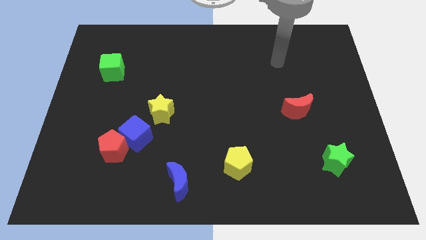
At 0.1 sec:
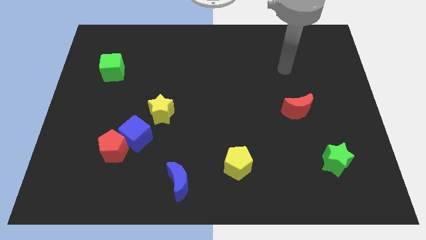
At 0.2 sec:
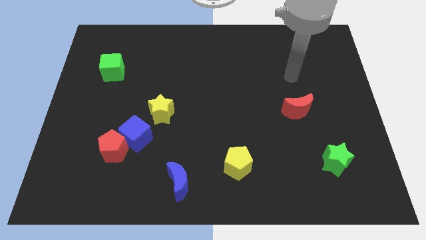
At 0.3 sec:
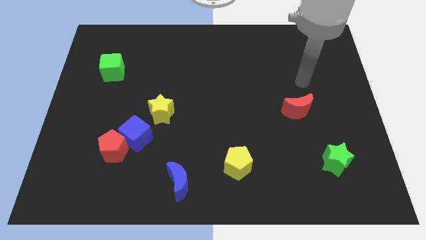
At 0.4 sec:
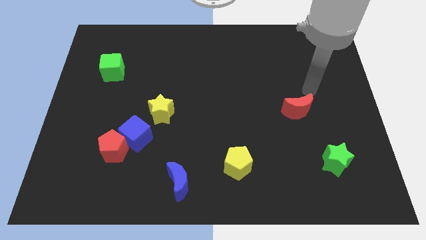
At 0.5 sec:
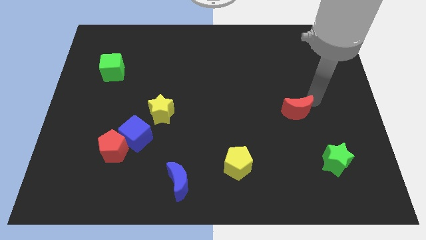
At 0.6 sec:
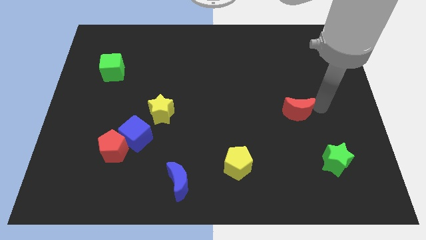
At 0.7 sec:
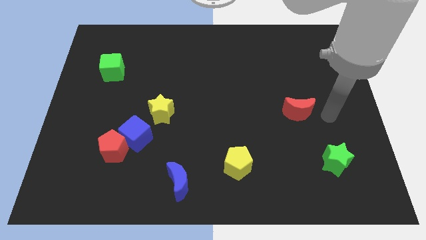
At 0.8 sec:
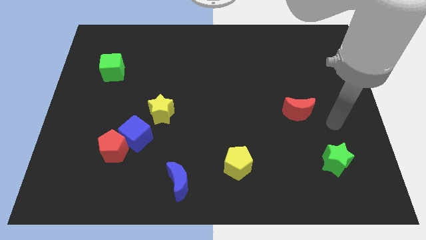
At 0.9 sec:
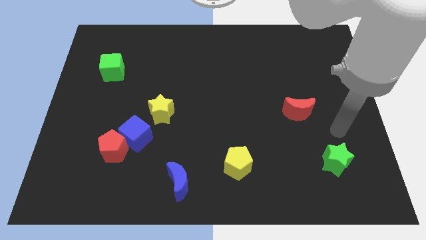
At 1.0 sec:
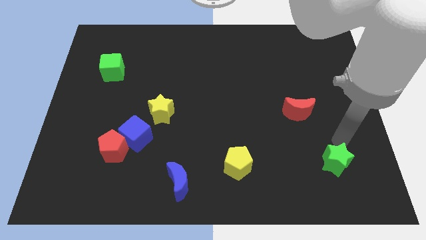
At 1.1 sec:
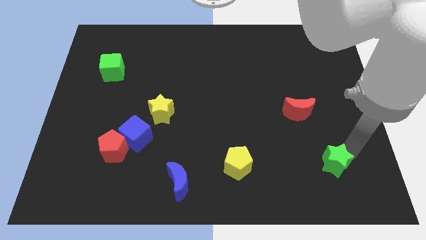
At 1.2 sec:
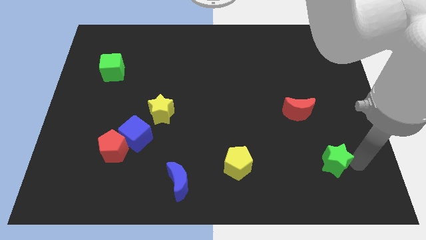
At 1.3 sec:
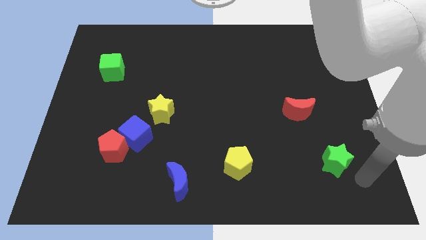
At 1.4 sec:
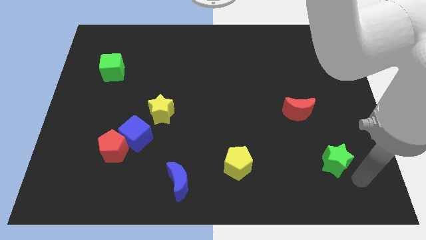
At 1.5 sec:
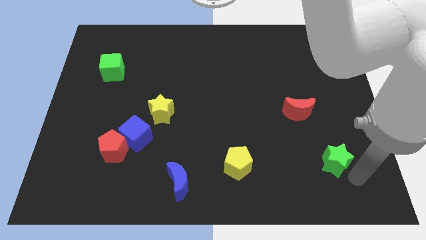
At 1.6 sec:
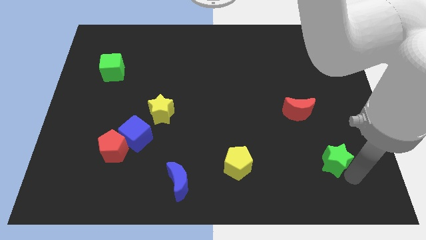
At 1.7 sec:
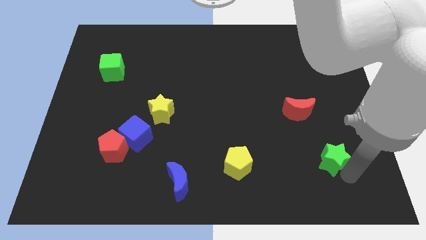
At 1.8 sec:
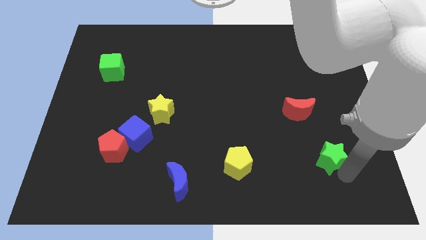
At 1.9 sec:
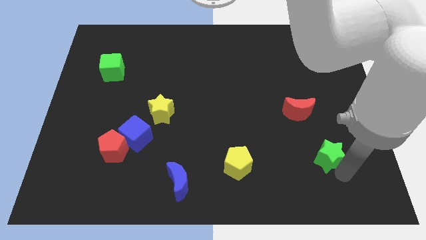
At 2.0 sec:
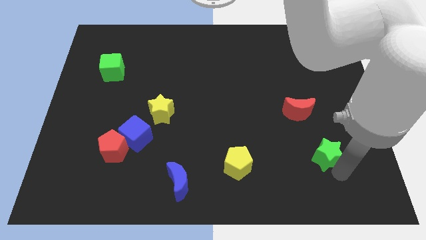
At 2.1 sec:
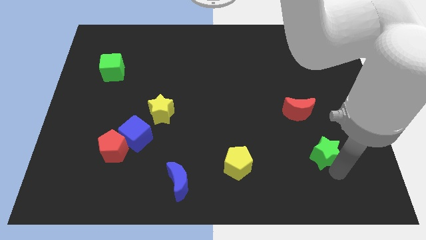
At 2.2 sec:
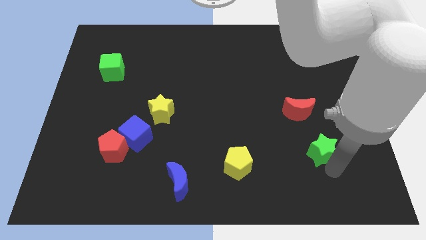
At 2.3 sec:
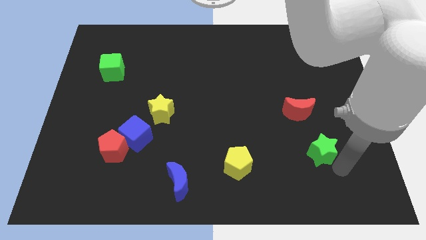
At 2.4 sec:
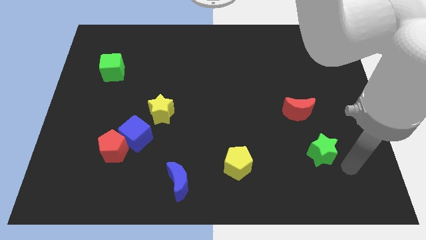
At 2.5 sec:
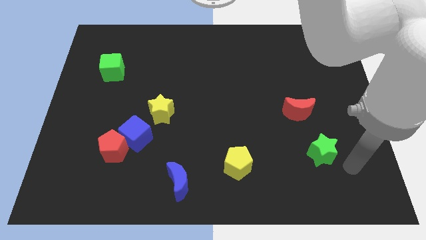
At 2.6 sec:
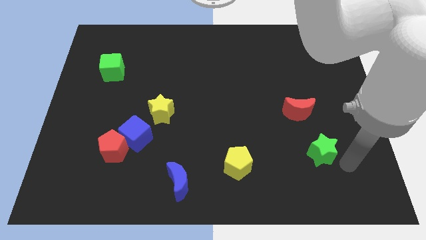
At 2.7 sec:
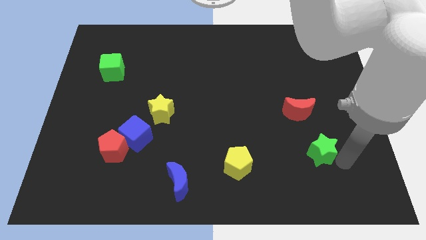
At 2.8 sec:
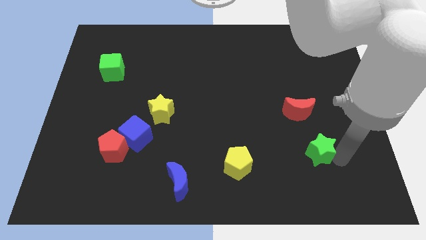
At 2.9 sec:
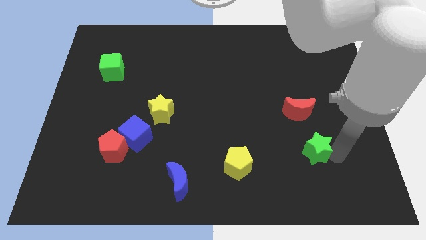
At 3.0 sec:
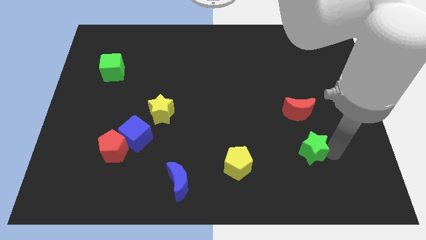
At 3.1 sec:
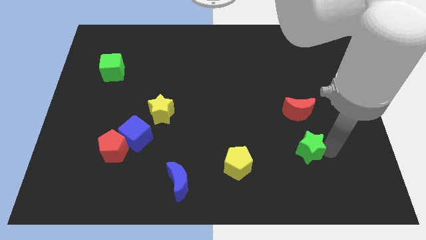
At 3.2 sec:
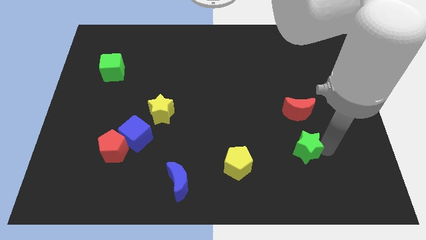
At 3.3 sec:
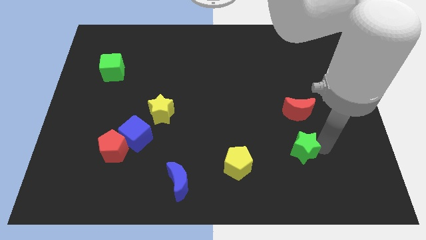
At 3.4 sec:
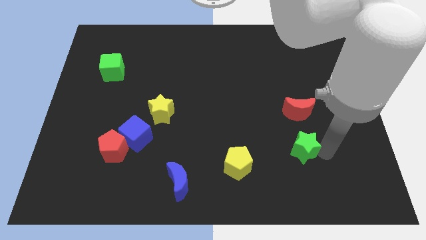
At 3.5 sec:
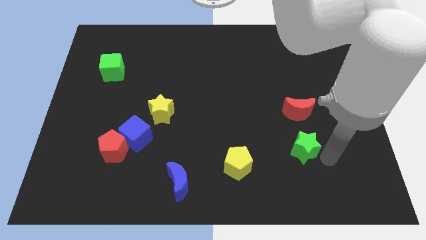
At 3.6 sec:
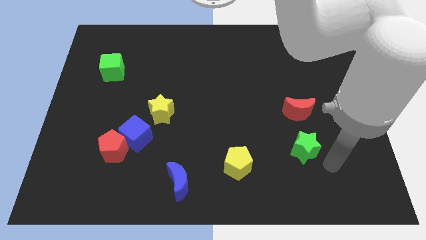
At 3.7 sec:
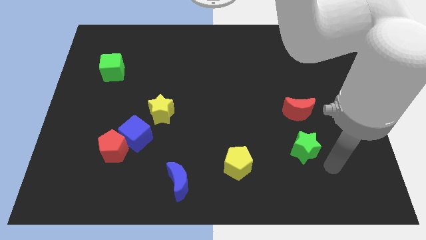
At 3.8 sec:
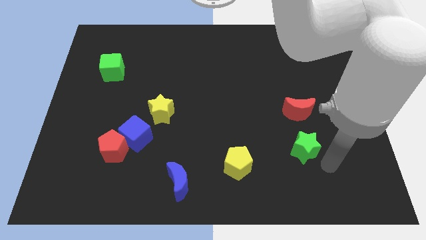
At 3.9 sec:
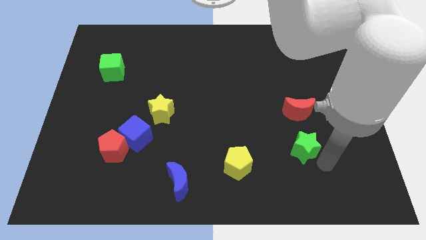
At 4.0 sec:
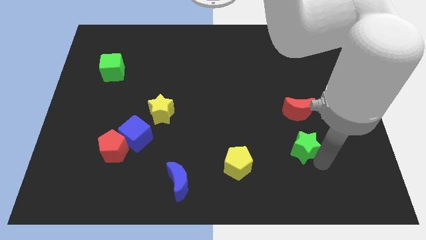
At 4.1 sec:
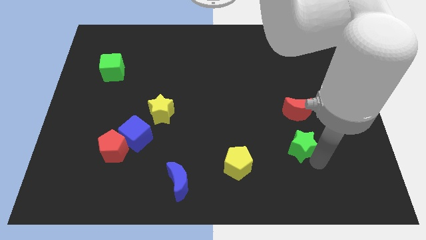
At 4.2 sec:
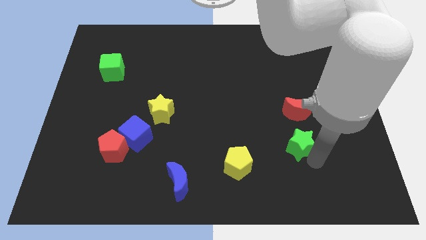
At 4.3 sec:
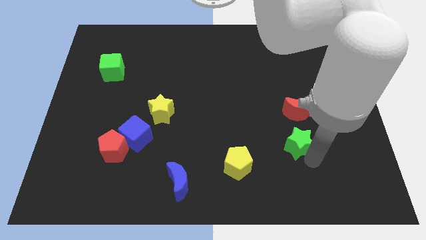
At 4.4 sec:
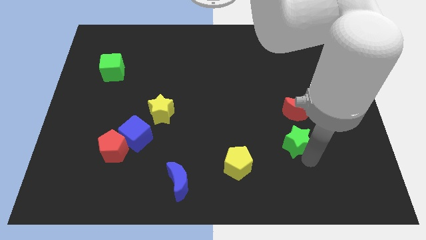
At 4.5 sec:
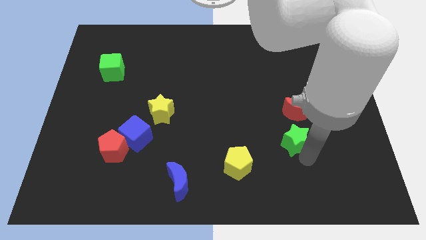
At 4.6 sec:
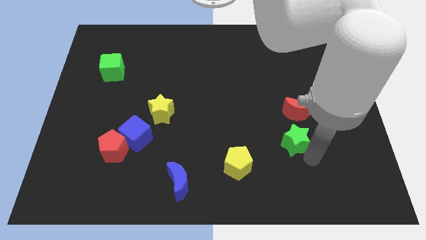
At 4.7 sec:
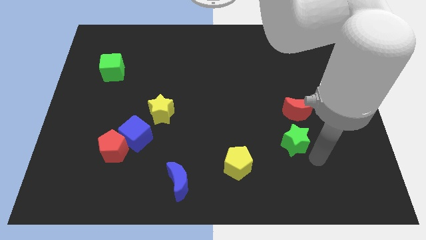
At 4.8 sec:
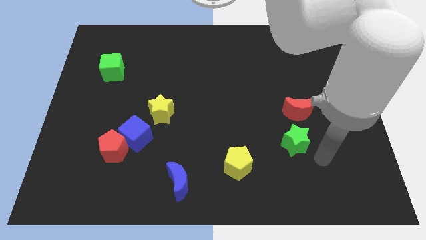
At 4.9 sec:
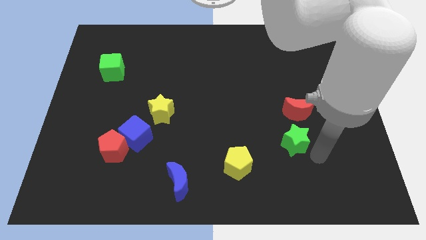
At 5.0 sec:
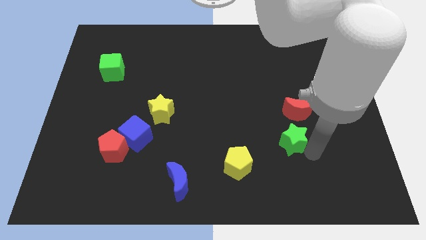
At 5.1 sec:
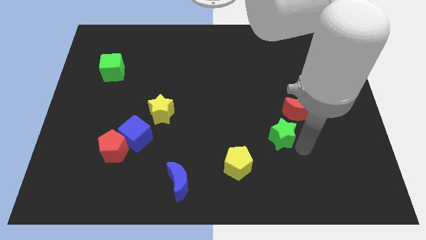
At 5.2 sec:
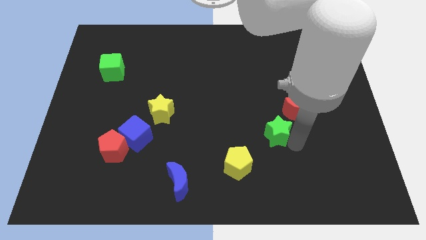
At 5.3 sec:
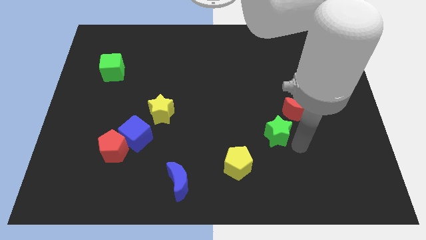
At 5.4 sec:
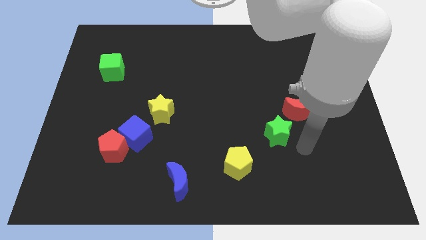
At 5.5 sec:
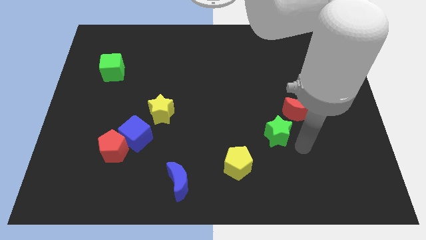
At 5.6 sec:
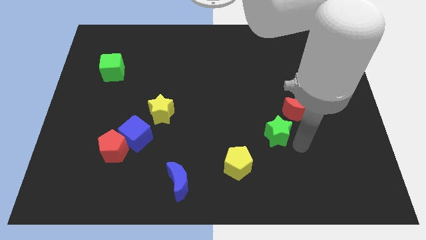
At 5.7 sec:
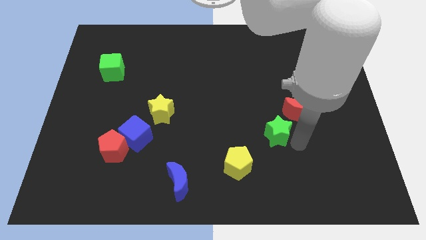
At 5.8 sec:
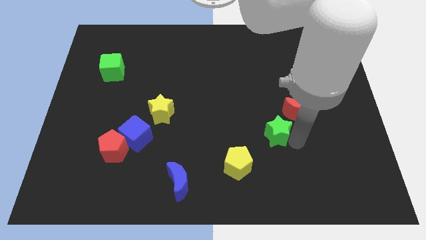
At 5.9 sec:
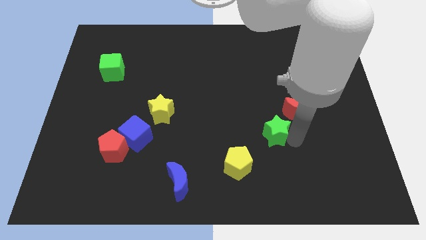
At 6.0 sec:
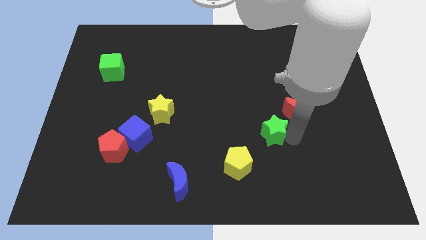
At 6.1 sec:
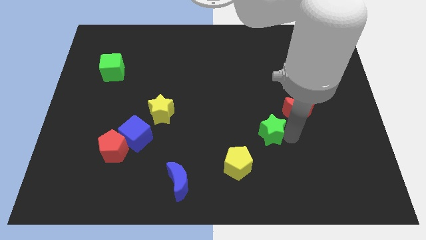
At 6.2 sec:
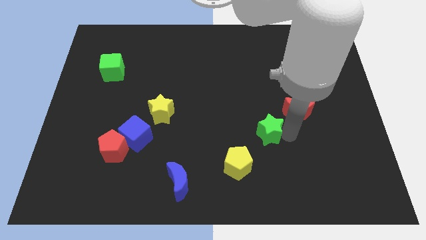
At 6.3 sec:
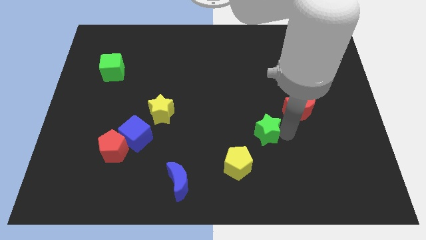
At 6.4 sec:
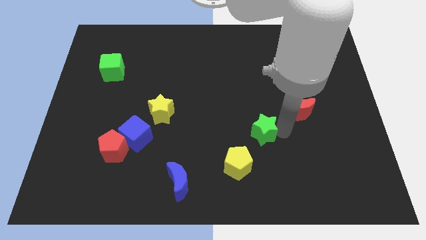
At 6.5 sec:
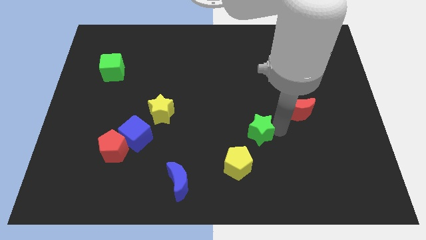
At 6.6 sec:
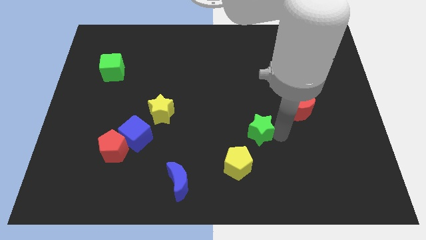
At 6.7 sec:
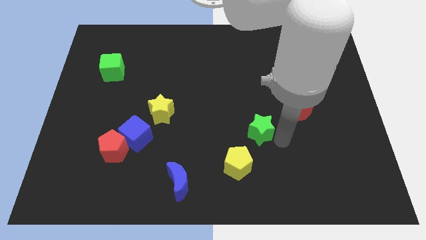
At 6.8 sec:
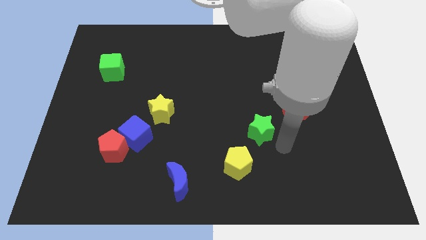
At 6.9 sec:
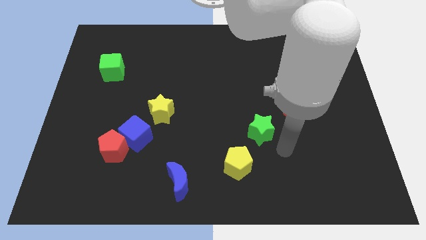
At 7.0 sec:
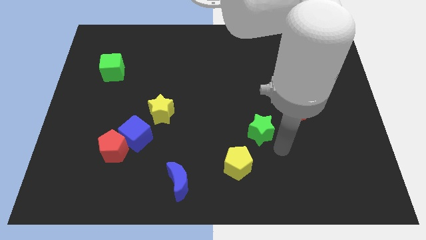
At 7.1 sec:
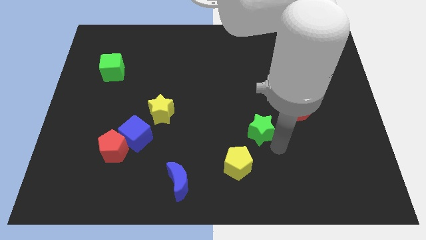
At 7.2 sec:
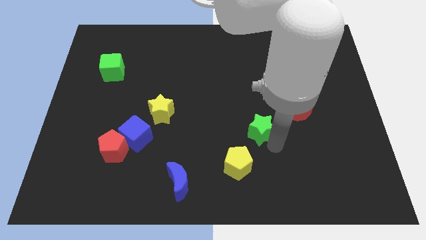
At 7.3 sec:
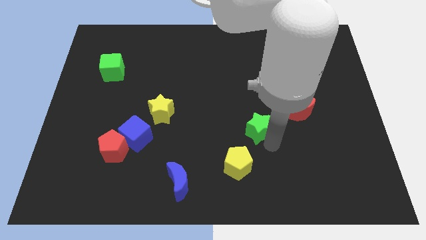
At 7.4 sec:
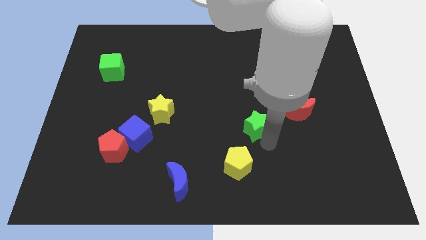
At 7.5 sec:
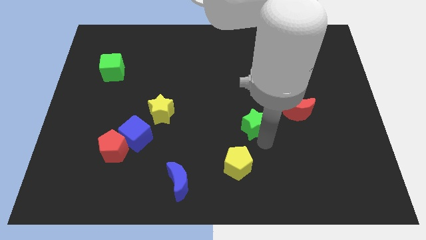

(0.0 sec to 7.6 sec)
put the green star to the center

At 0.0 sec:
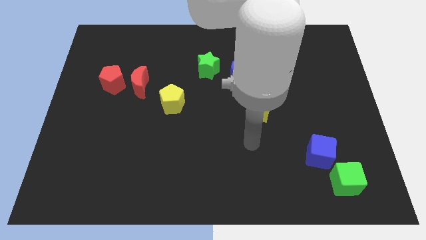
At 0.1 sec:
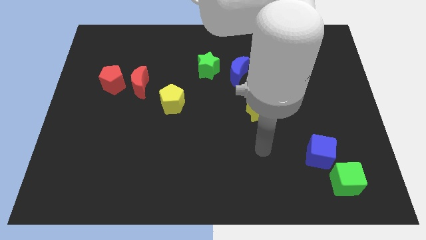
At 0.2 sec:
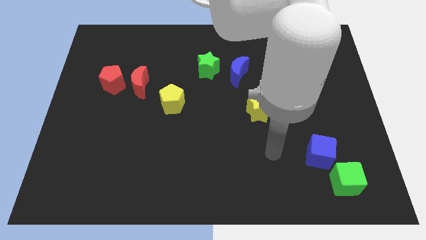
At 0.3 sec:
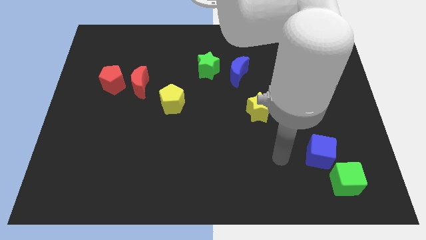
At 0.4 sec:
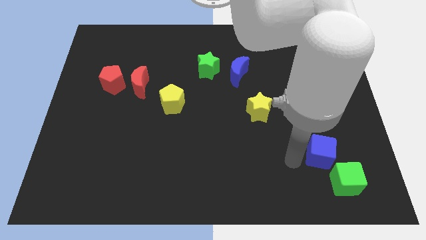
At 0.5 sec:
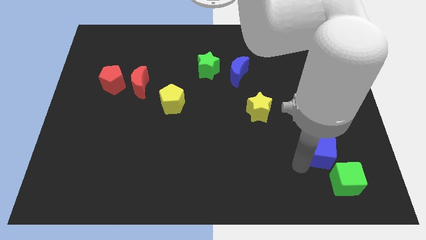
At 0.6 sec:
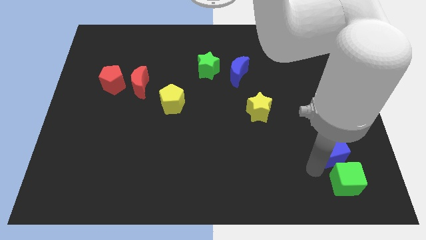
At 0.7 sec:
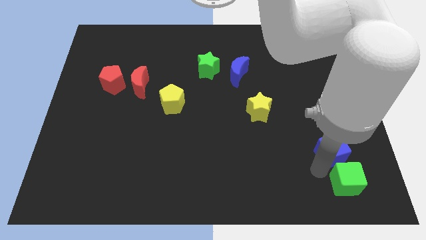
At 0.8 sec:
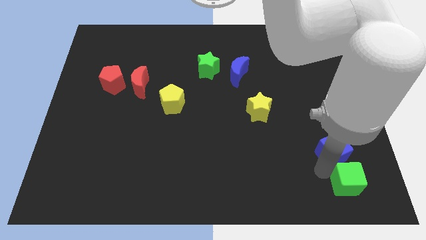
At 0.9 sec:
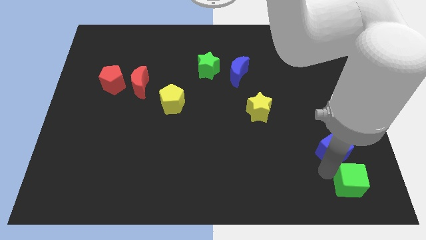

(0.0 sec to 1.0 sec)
push the green cube to the lower right corner
